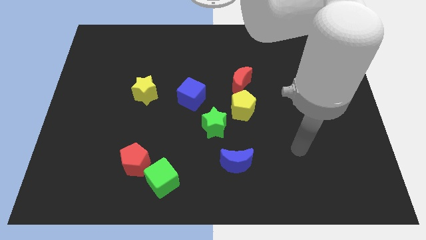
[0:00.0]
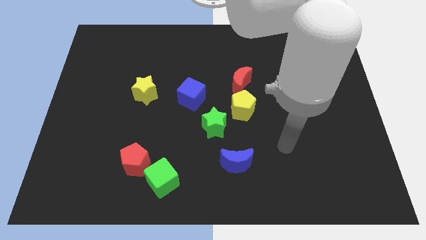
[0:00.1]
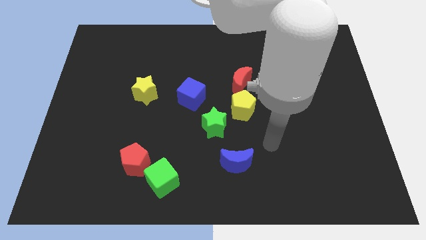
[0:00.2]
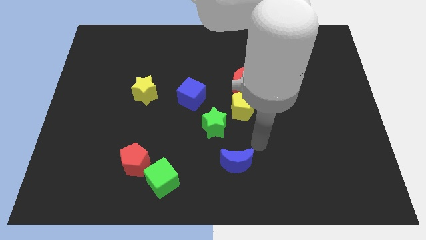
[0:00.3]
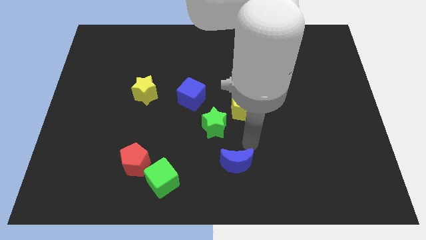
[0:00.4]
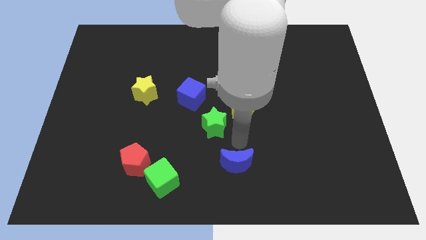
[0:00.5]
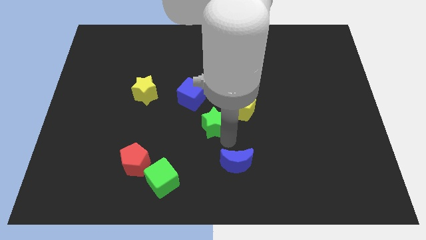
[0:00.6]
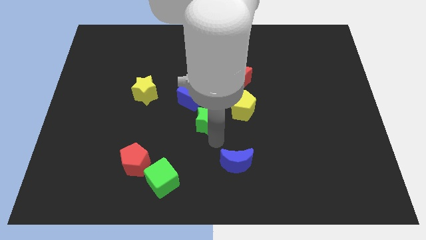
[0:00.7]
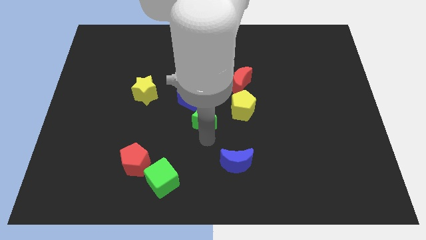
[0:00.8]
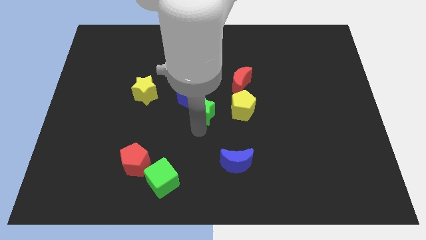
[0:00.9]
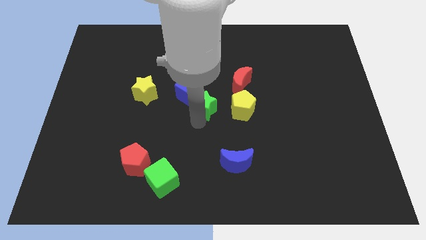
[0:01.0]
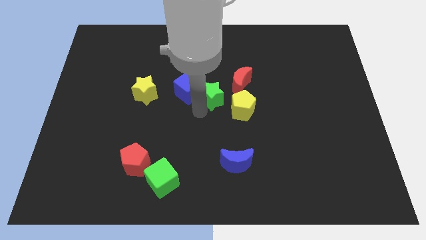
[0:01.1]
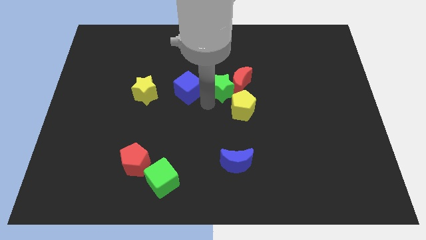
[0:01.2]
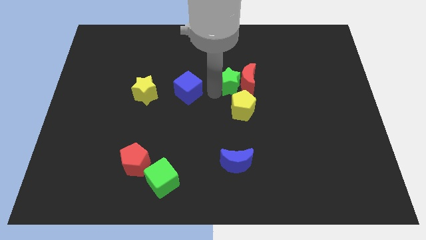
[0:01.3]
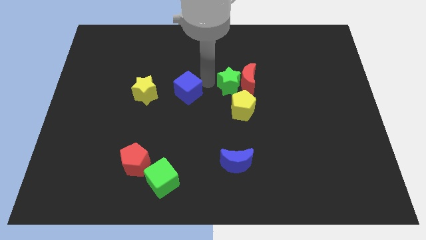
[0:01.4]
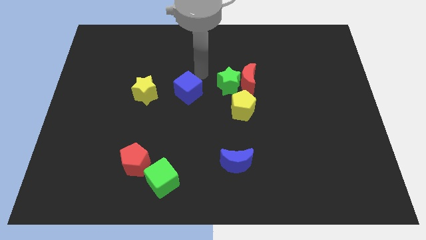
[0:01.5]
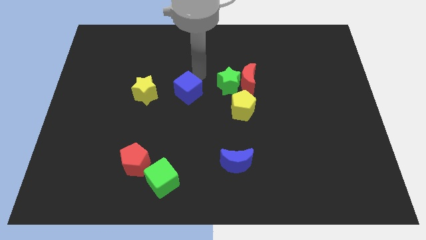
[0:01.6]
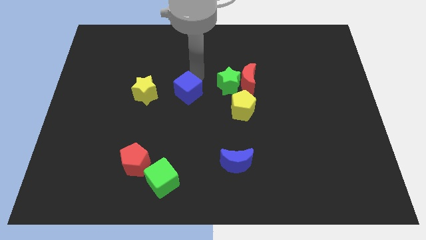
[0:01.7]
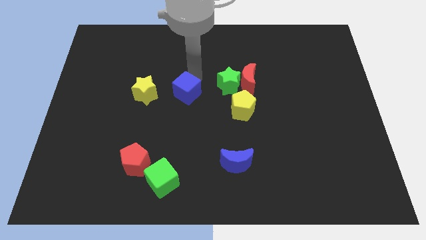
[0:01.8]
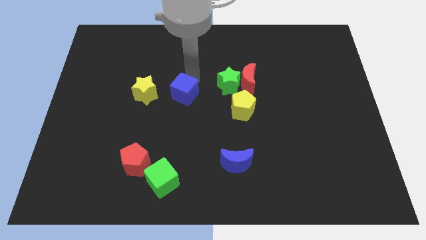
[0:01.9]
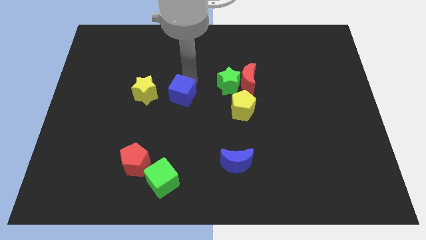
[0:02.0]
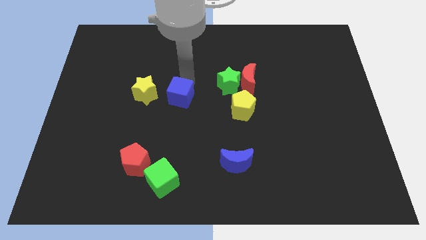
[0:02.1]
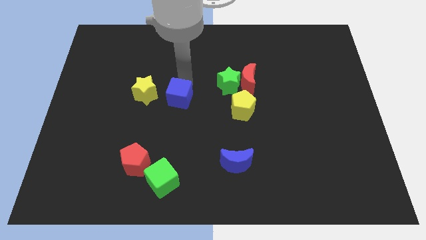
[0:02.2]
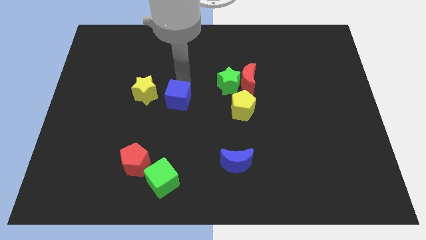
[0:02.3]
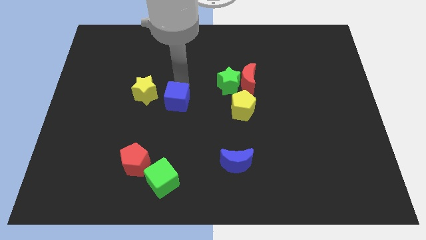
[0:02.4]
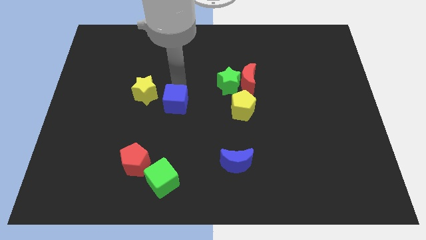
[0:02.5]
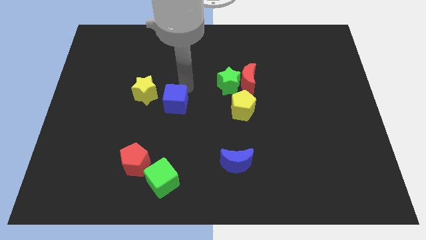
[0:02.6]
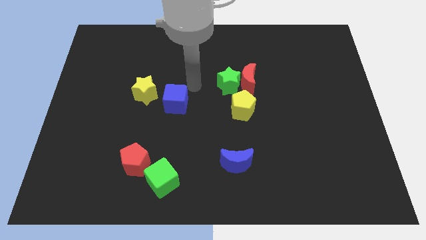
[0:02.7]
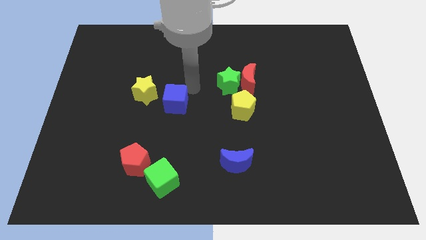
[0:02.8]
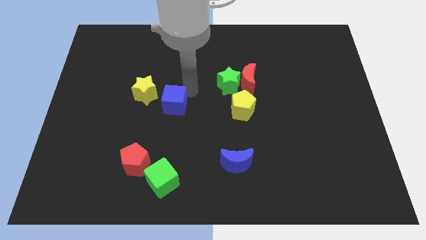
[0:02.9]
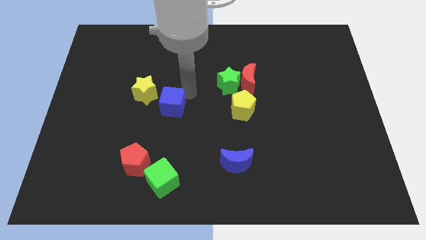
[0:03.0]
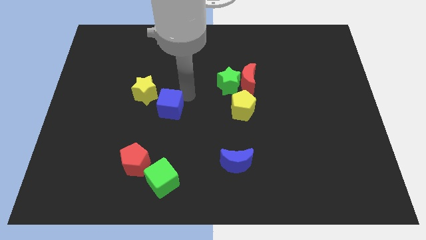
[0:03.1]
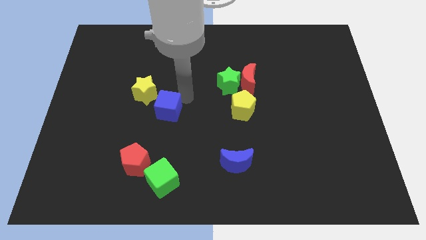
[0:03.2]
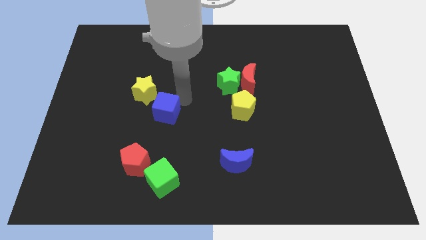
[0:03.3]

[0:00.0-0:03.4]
slightly move the blue cube downwards and then to the left

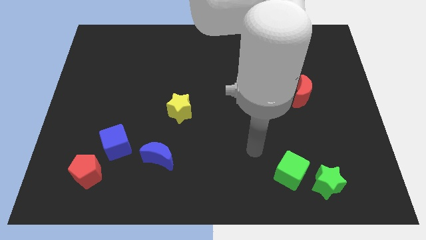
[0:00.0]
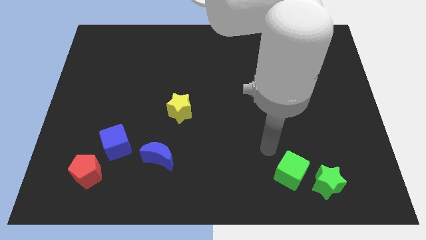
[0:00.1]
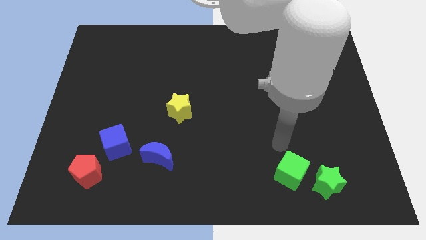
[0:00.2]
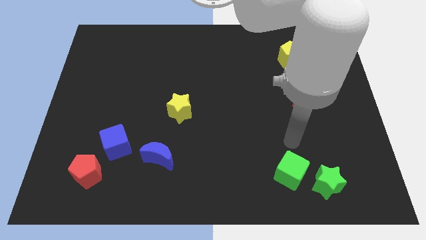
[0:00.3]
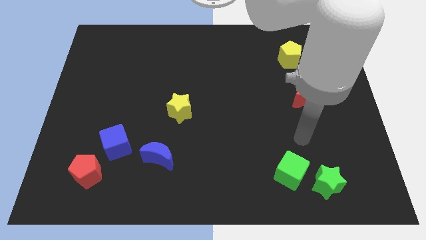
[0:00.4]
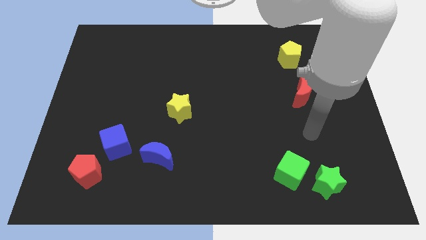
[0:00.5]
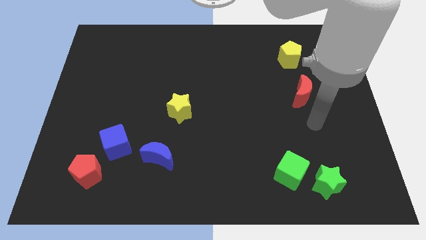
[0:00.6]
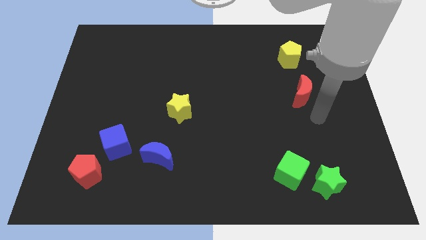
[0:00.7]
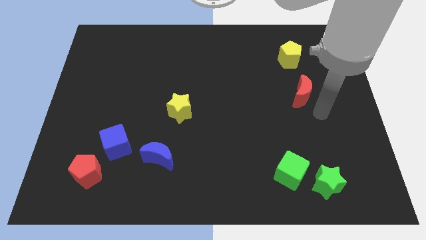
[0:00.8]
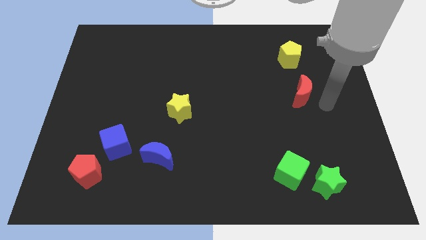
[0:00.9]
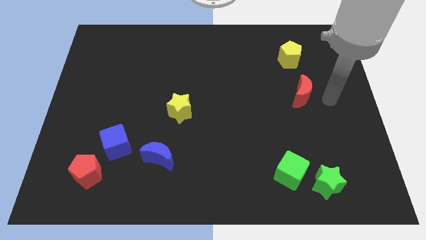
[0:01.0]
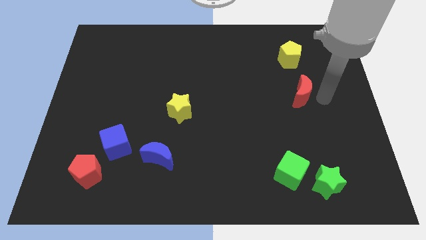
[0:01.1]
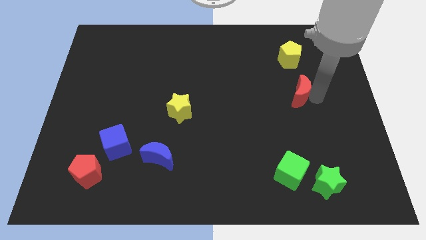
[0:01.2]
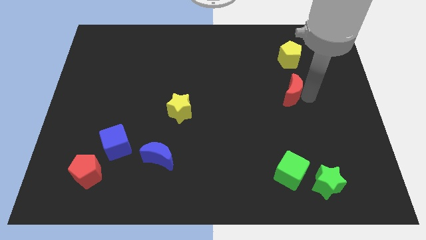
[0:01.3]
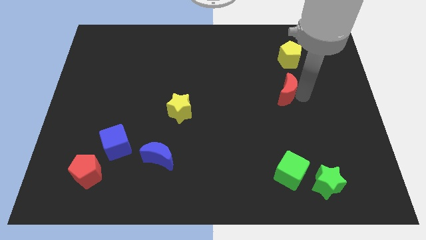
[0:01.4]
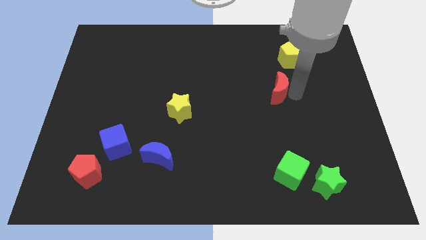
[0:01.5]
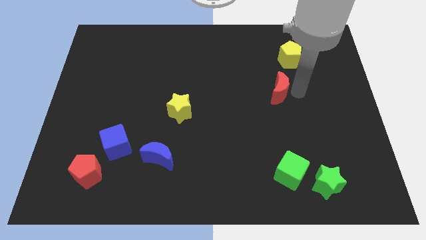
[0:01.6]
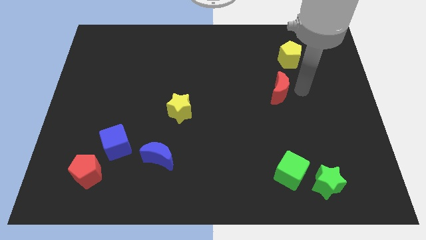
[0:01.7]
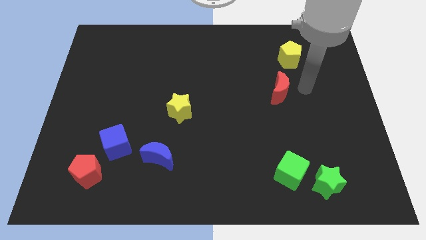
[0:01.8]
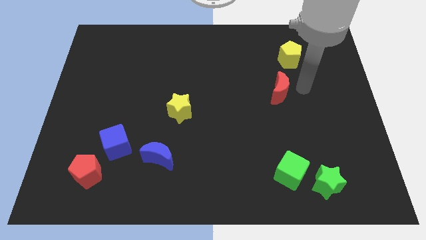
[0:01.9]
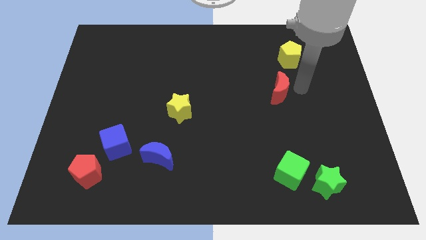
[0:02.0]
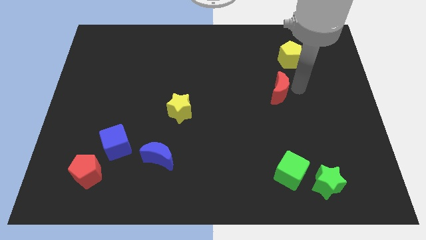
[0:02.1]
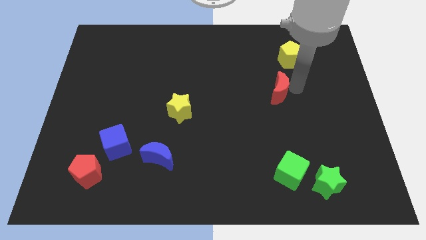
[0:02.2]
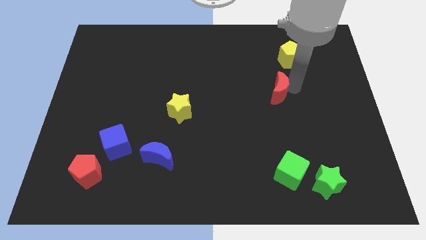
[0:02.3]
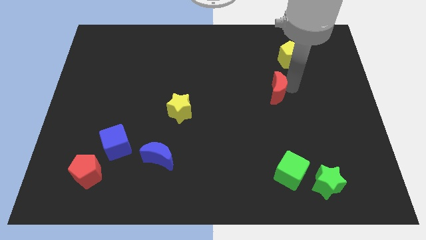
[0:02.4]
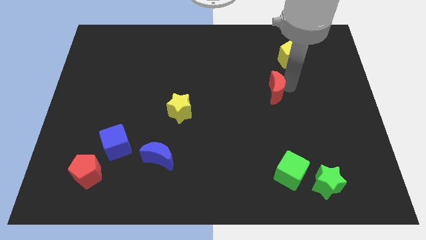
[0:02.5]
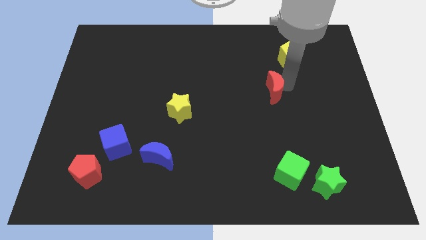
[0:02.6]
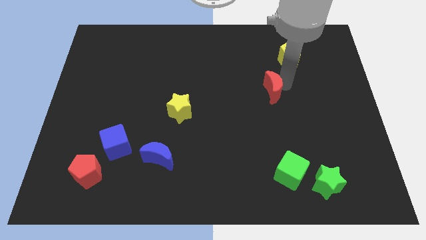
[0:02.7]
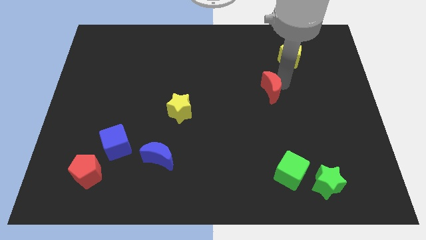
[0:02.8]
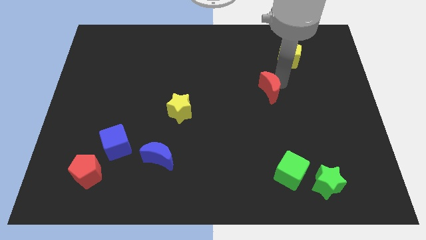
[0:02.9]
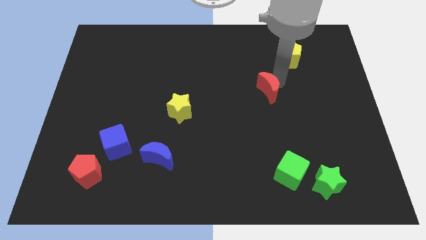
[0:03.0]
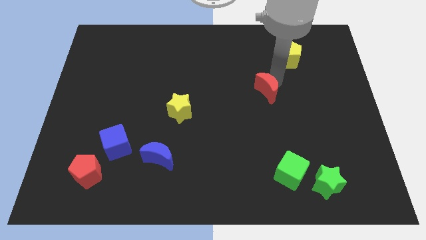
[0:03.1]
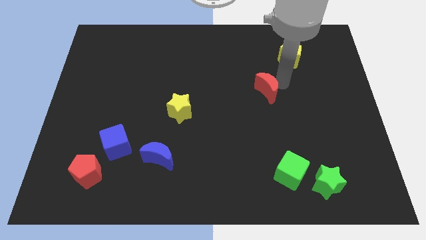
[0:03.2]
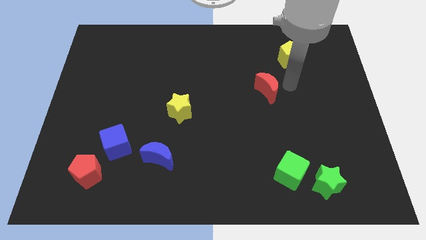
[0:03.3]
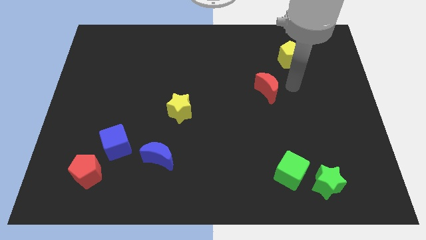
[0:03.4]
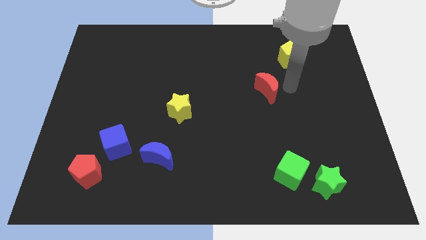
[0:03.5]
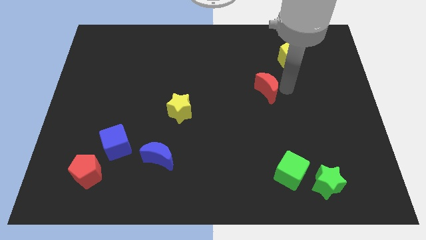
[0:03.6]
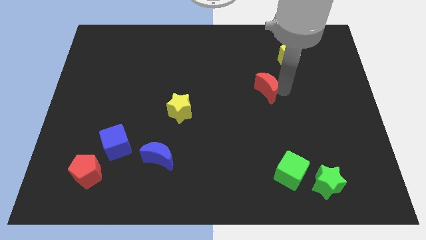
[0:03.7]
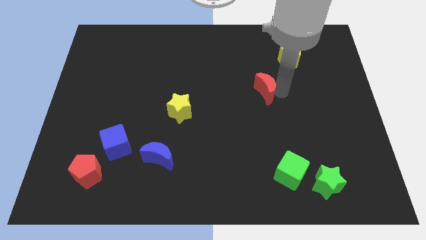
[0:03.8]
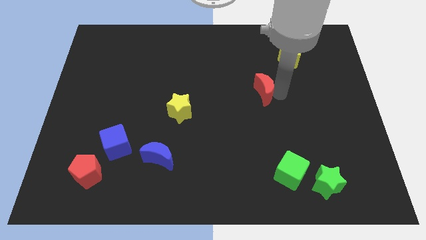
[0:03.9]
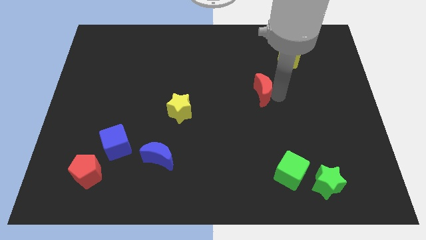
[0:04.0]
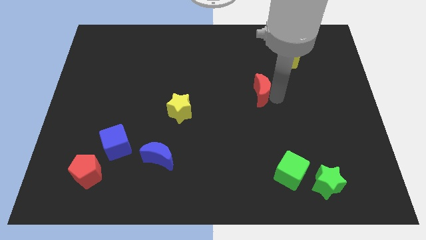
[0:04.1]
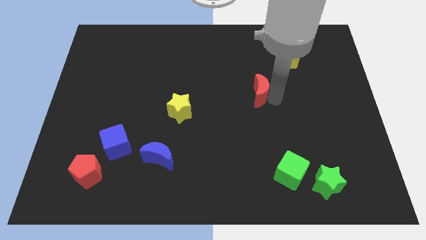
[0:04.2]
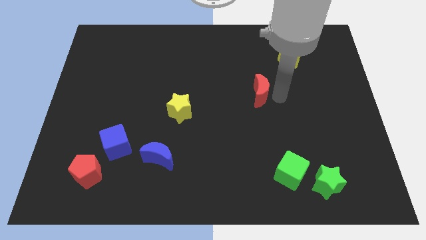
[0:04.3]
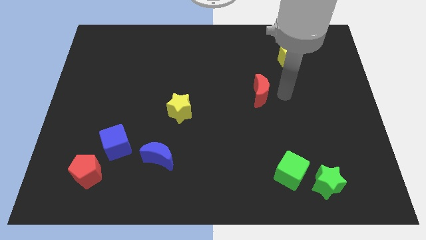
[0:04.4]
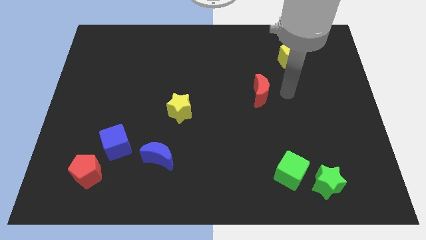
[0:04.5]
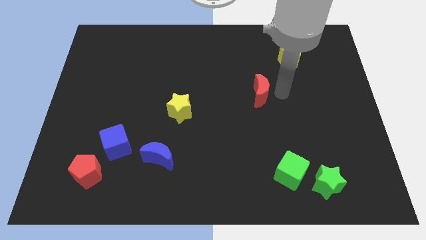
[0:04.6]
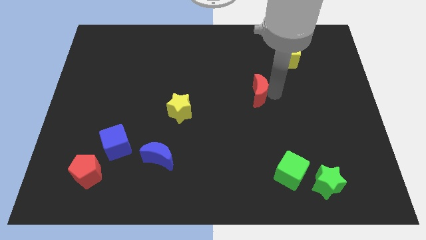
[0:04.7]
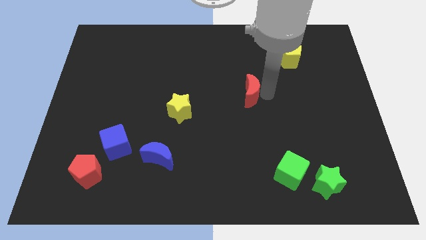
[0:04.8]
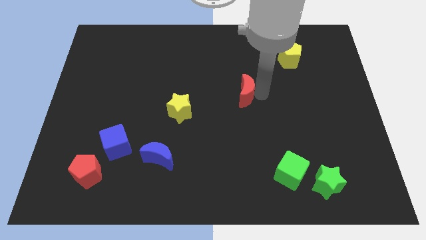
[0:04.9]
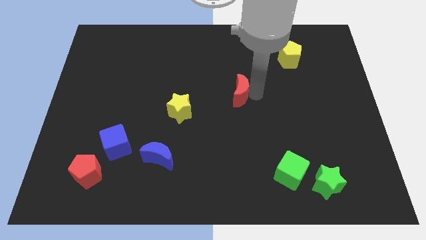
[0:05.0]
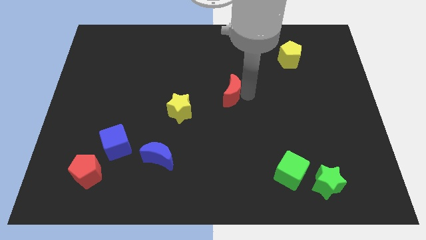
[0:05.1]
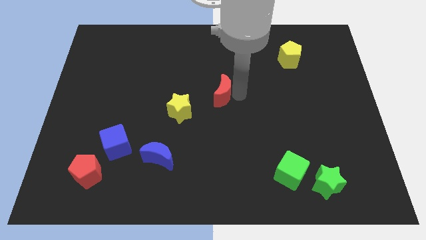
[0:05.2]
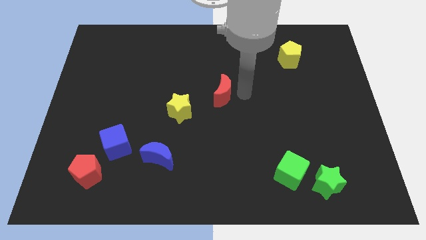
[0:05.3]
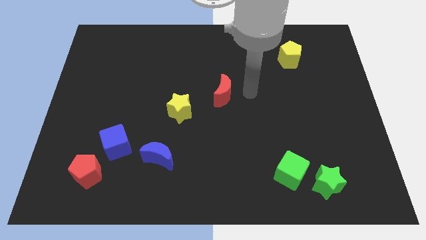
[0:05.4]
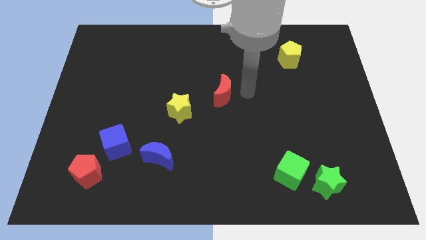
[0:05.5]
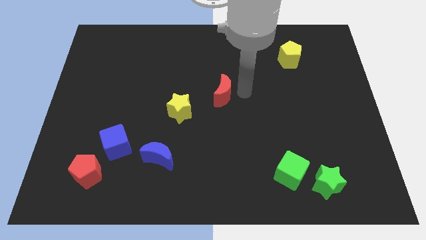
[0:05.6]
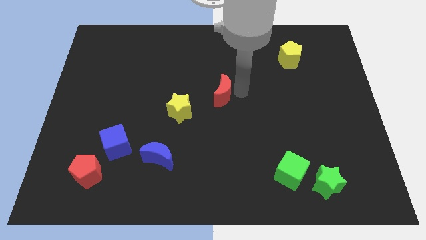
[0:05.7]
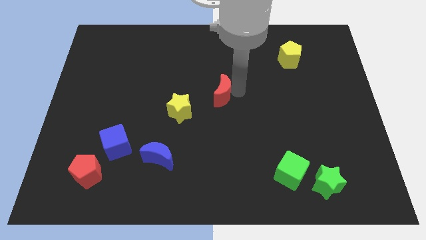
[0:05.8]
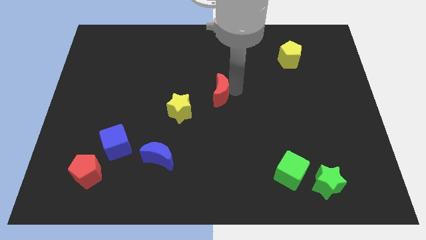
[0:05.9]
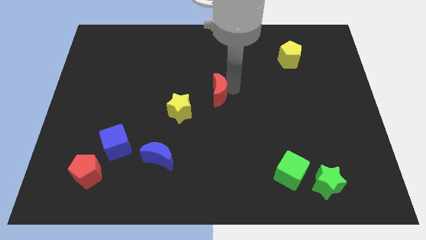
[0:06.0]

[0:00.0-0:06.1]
push the red moon left
